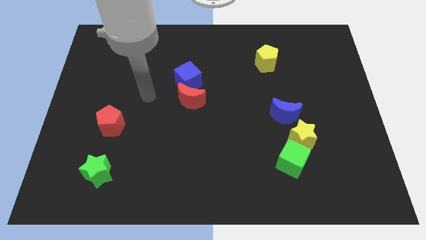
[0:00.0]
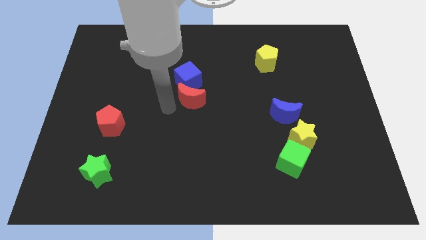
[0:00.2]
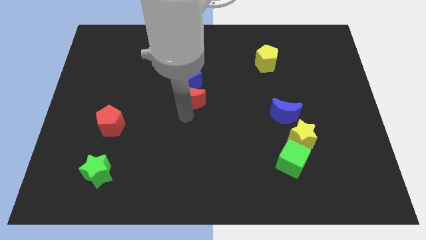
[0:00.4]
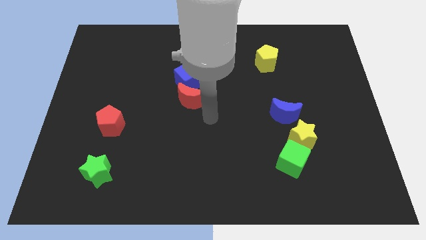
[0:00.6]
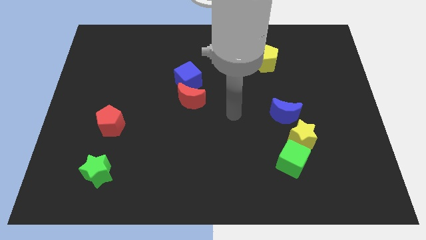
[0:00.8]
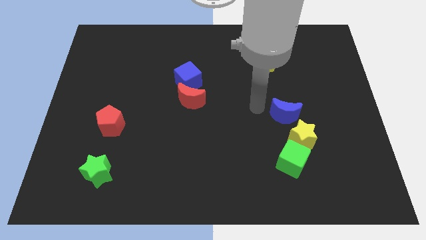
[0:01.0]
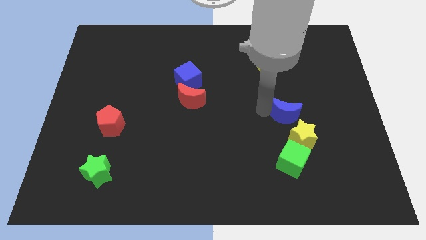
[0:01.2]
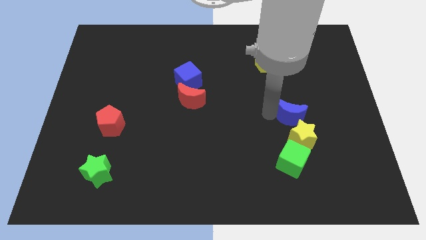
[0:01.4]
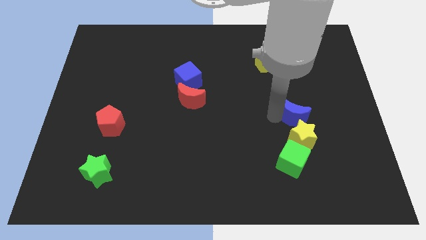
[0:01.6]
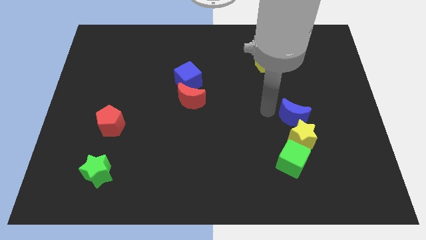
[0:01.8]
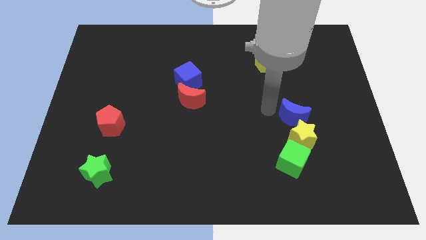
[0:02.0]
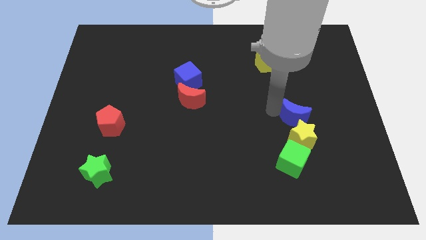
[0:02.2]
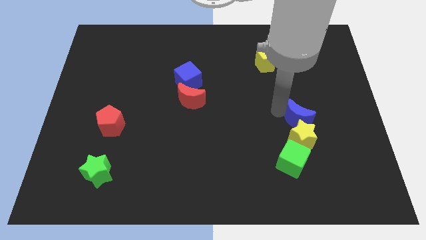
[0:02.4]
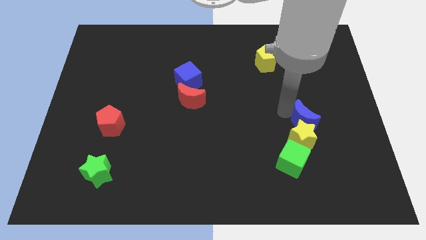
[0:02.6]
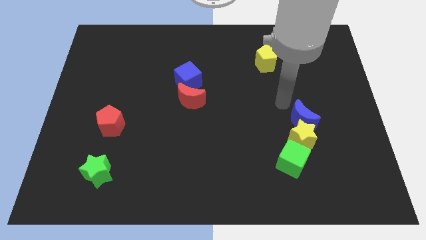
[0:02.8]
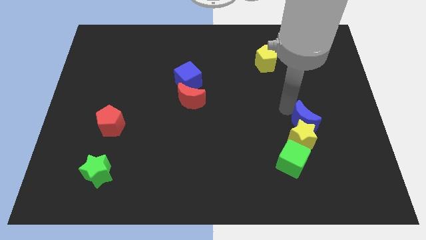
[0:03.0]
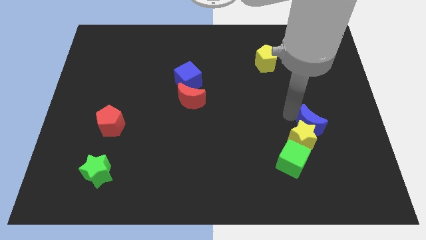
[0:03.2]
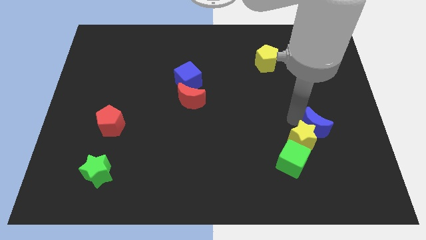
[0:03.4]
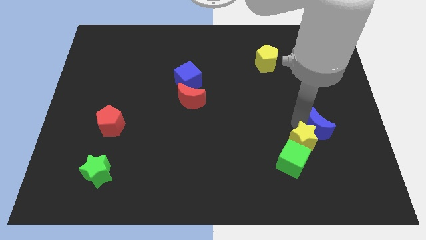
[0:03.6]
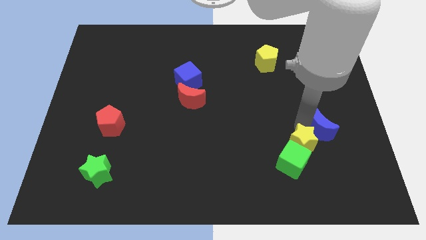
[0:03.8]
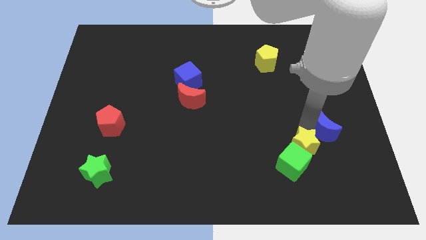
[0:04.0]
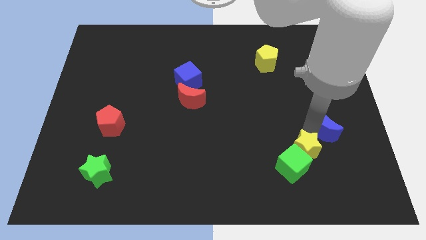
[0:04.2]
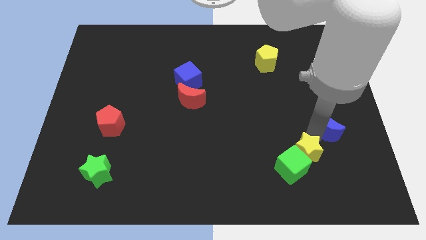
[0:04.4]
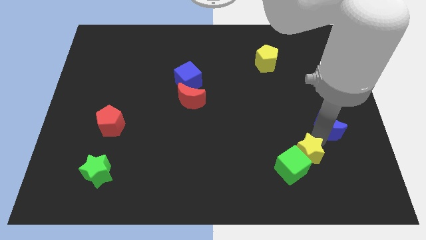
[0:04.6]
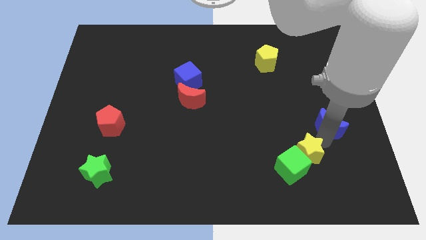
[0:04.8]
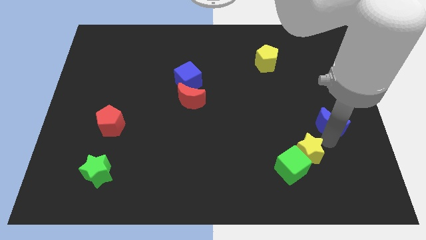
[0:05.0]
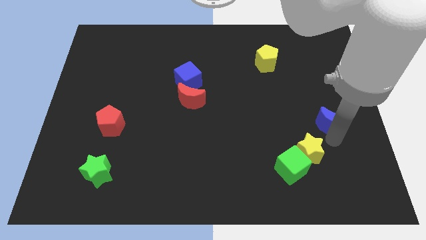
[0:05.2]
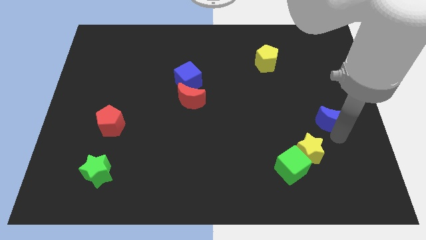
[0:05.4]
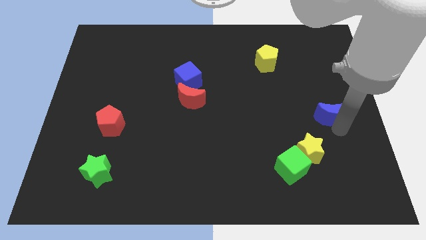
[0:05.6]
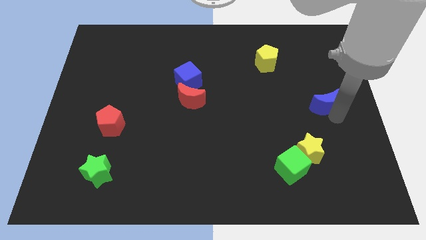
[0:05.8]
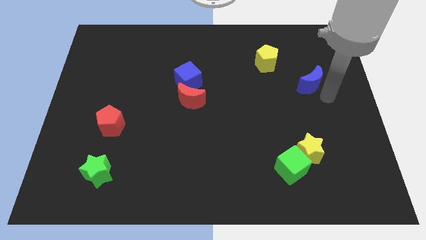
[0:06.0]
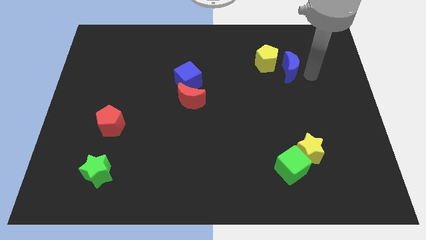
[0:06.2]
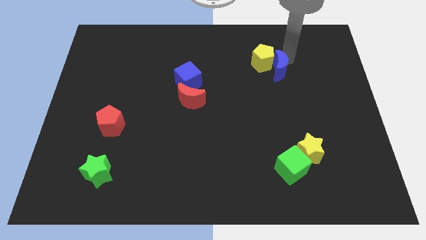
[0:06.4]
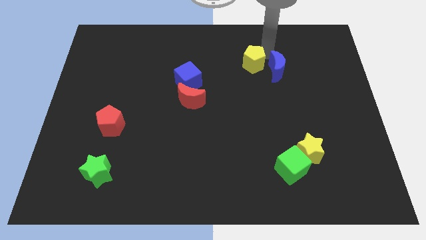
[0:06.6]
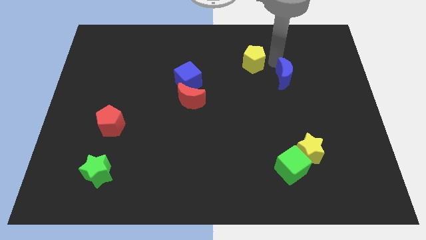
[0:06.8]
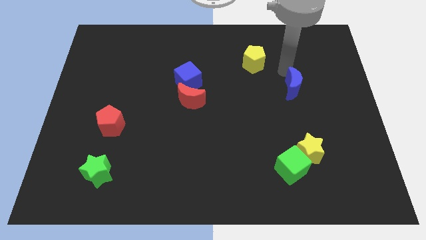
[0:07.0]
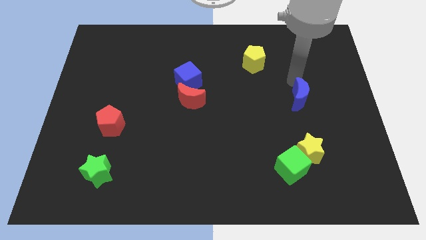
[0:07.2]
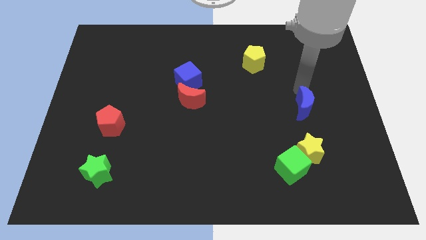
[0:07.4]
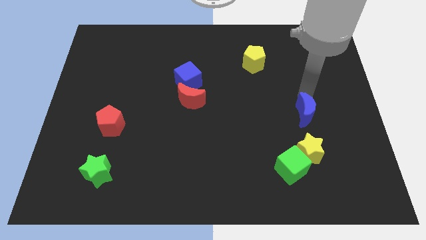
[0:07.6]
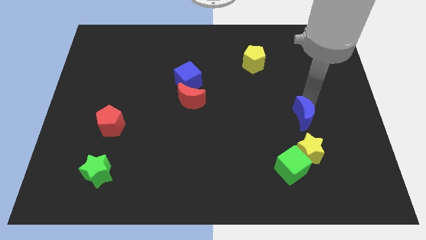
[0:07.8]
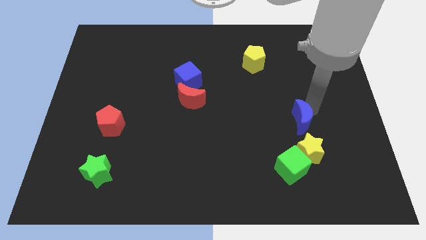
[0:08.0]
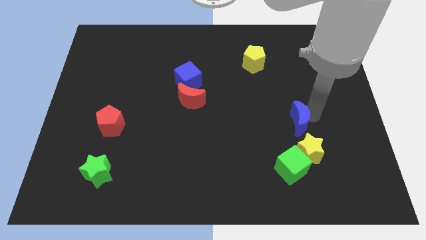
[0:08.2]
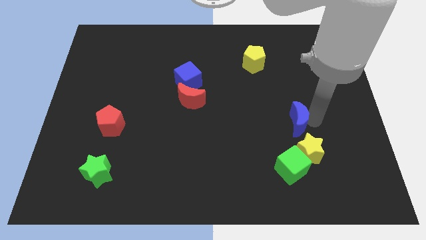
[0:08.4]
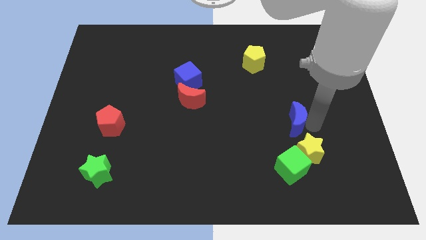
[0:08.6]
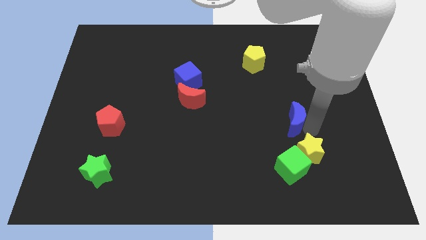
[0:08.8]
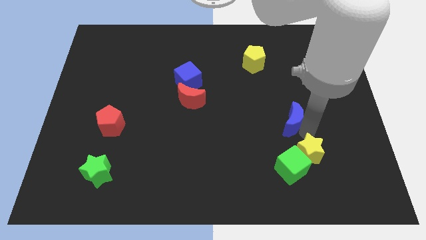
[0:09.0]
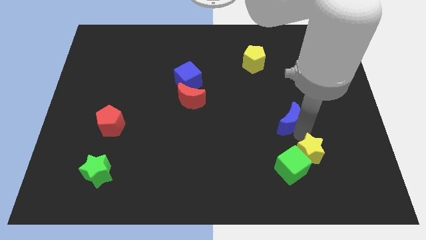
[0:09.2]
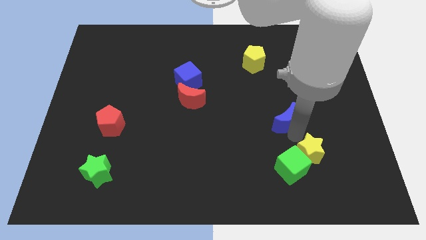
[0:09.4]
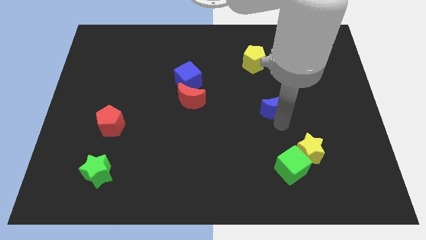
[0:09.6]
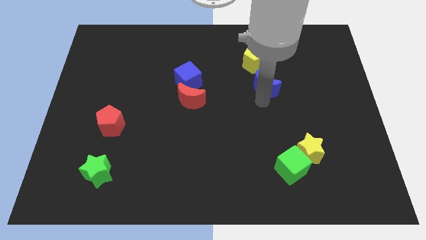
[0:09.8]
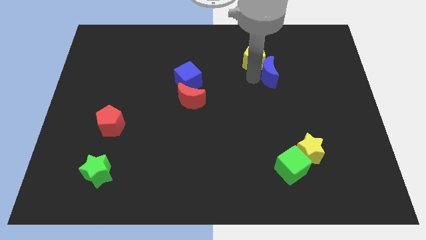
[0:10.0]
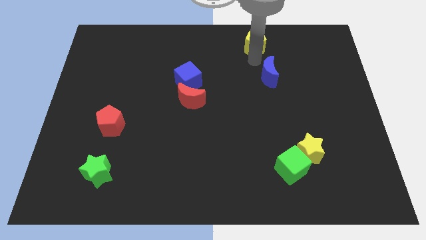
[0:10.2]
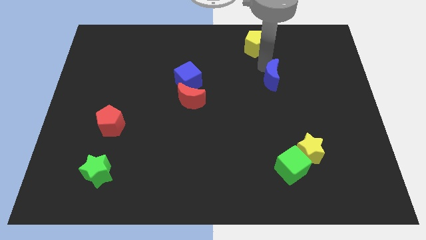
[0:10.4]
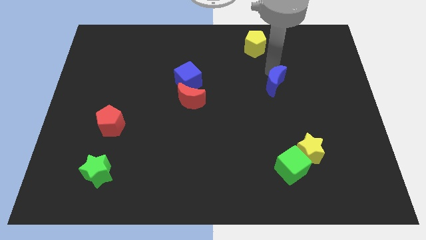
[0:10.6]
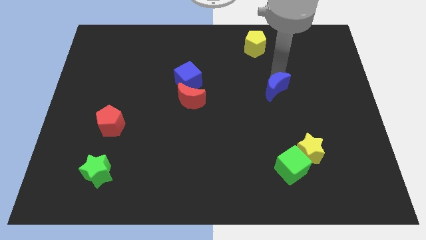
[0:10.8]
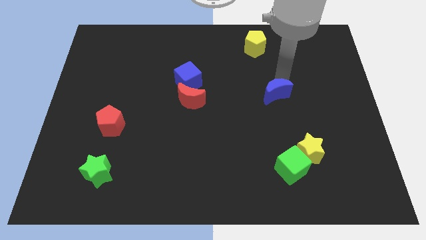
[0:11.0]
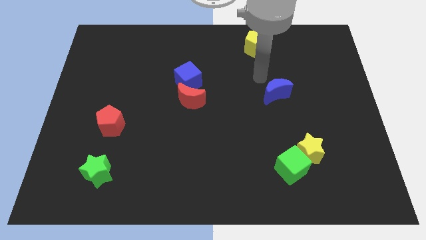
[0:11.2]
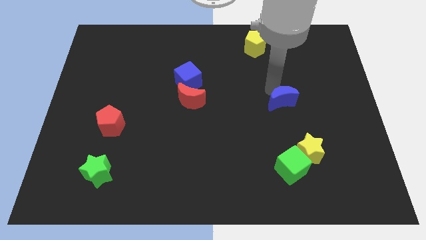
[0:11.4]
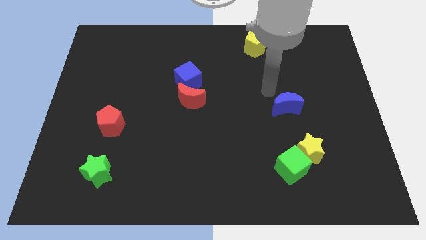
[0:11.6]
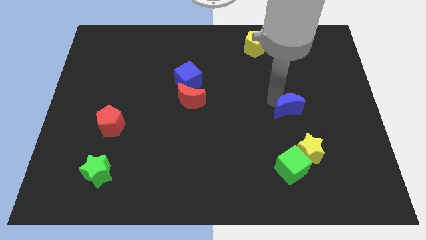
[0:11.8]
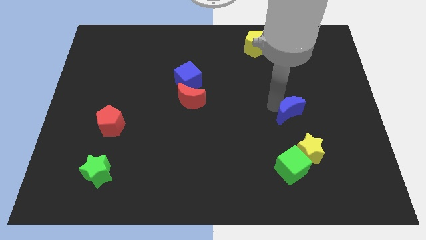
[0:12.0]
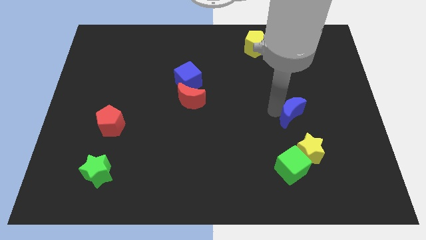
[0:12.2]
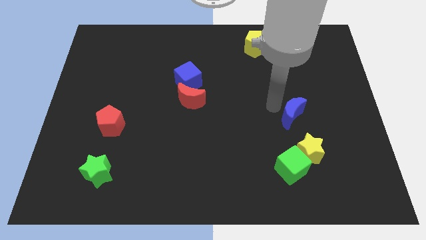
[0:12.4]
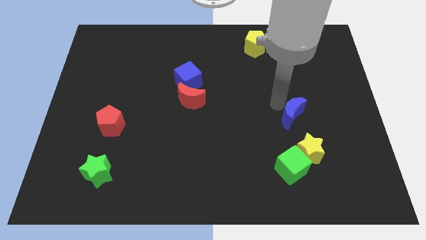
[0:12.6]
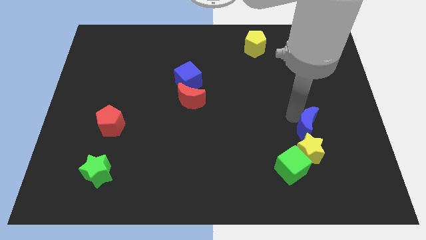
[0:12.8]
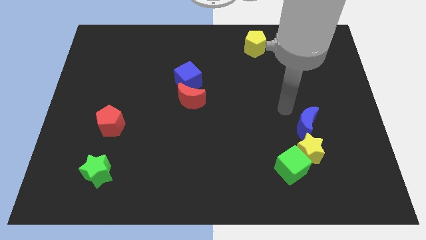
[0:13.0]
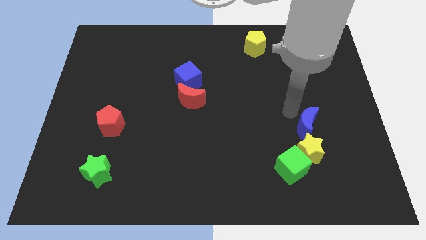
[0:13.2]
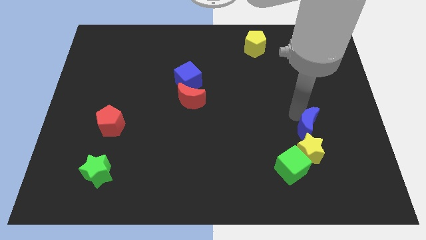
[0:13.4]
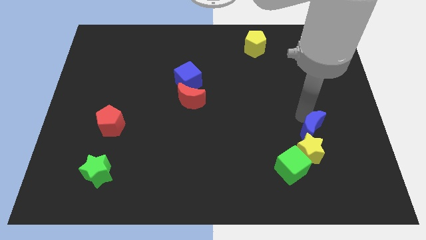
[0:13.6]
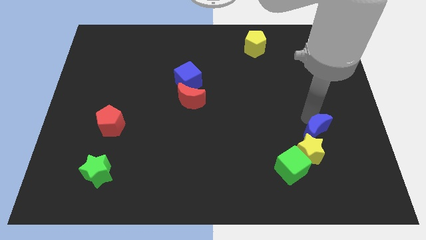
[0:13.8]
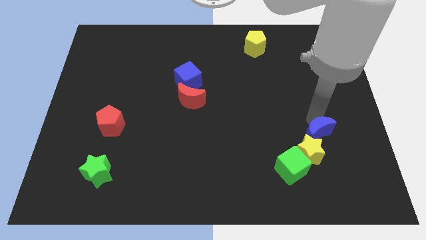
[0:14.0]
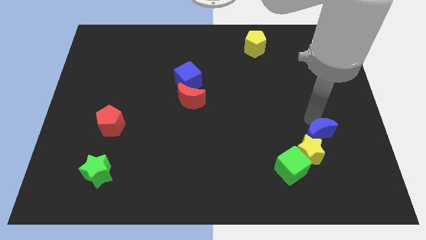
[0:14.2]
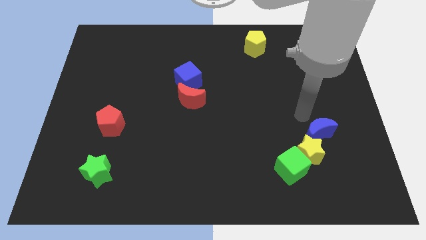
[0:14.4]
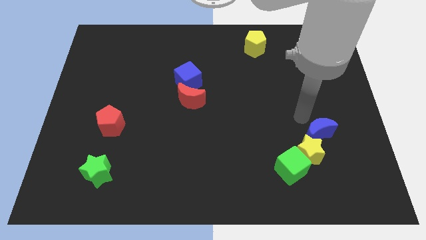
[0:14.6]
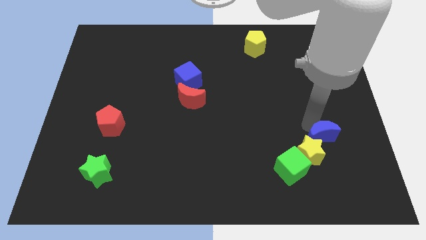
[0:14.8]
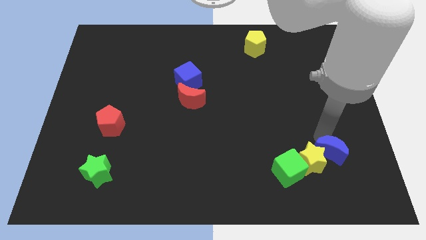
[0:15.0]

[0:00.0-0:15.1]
slide the blue moon right of the green cube
